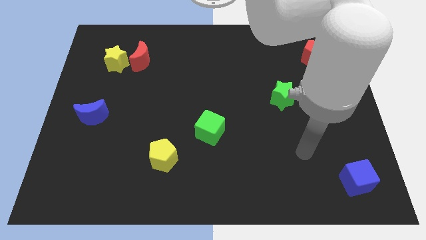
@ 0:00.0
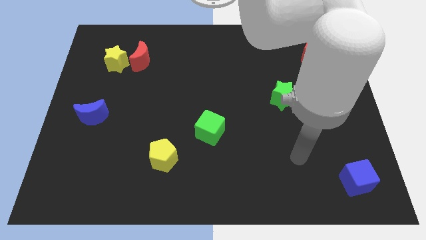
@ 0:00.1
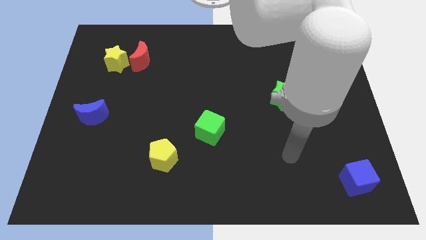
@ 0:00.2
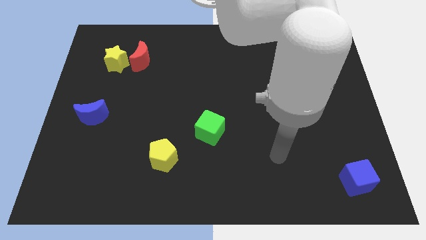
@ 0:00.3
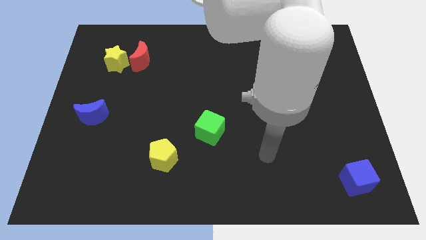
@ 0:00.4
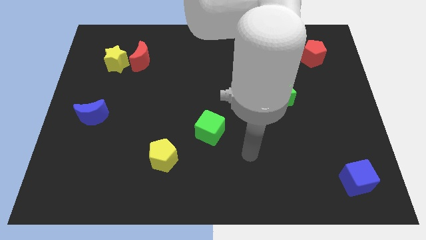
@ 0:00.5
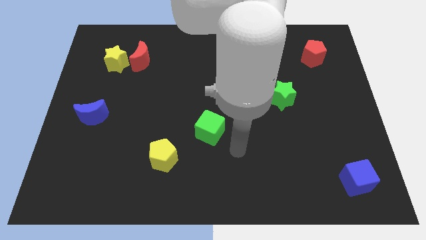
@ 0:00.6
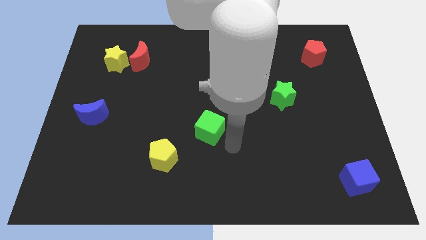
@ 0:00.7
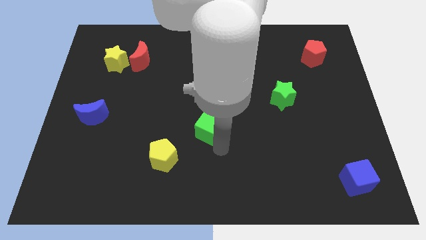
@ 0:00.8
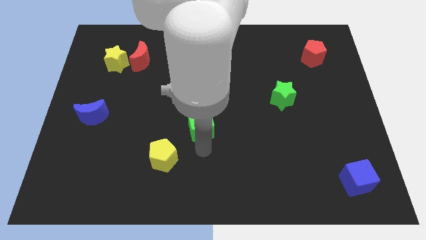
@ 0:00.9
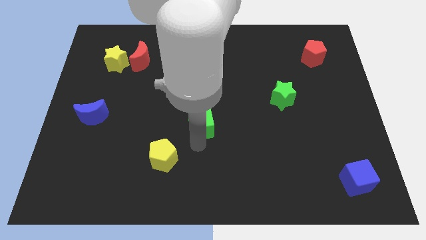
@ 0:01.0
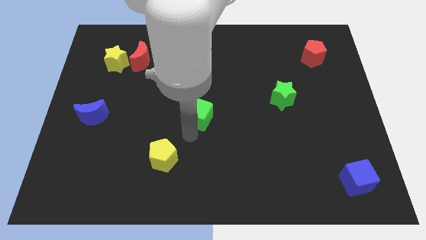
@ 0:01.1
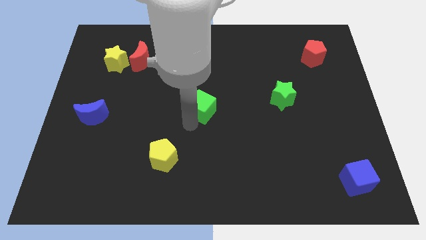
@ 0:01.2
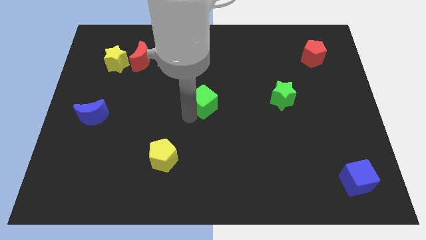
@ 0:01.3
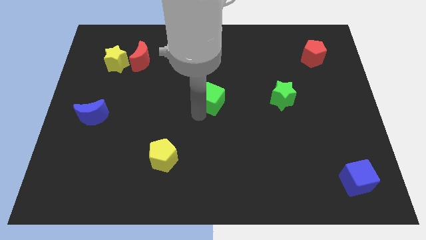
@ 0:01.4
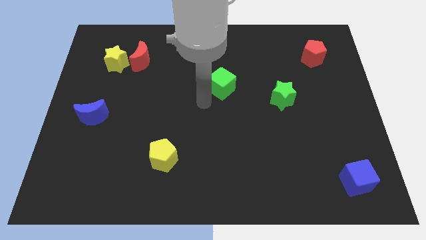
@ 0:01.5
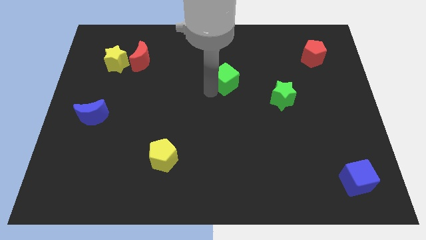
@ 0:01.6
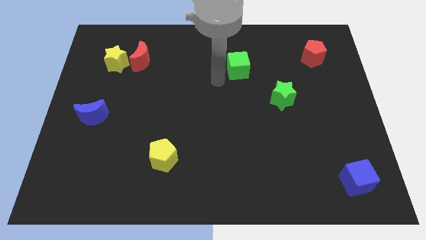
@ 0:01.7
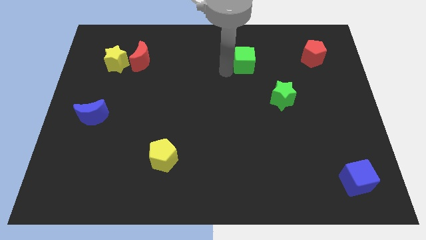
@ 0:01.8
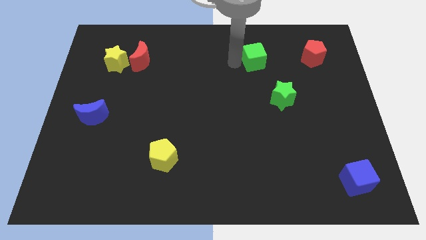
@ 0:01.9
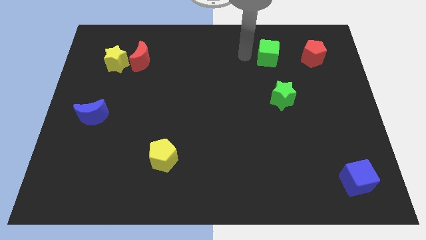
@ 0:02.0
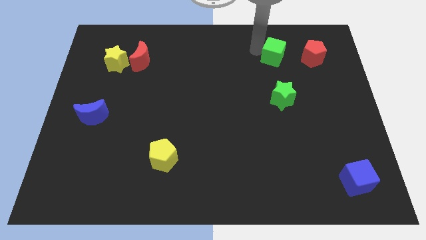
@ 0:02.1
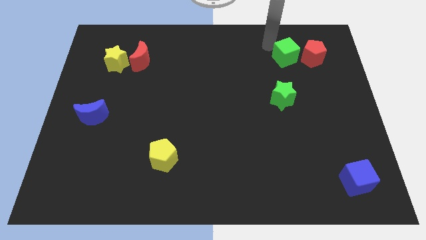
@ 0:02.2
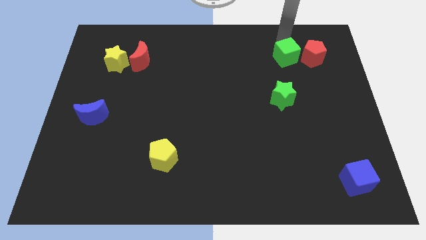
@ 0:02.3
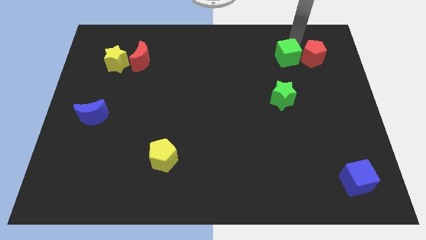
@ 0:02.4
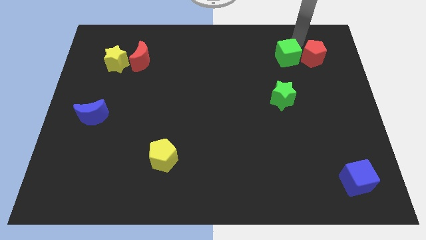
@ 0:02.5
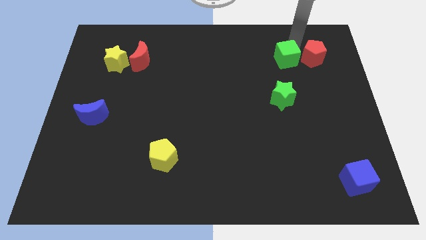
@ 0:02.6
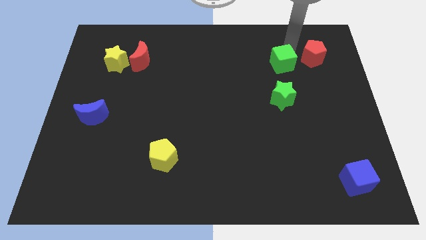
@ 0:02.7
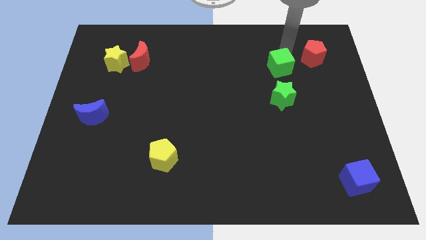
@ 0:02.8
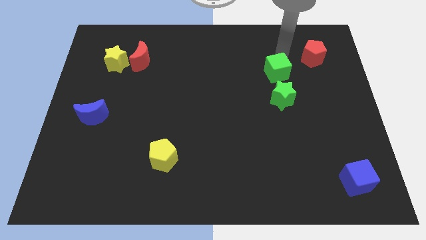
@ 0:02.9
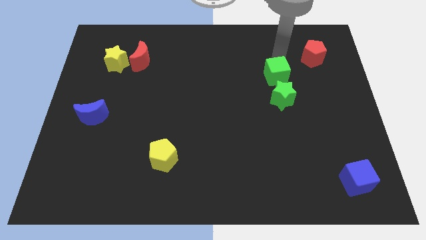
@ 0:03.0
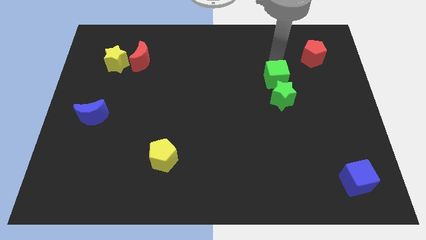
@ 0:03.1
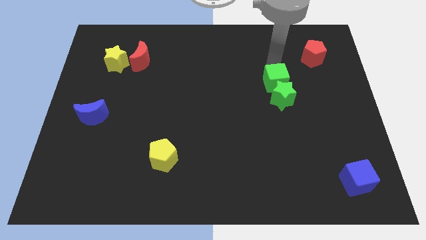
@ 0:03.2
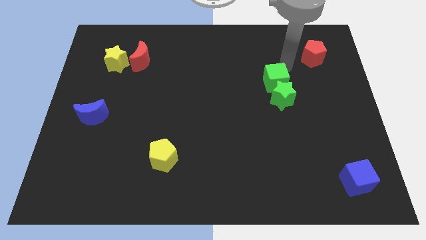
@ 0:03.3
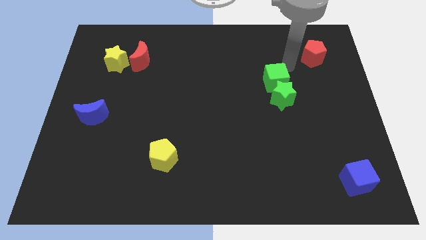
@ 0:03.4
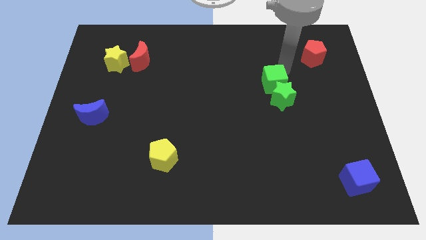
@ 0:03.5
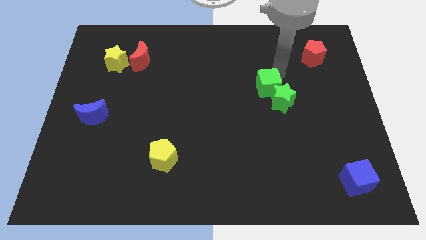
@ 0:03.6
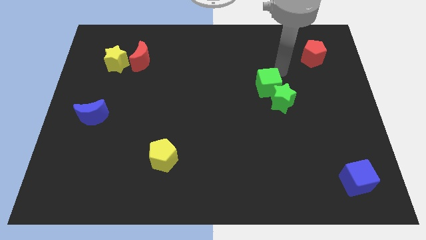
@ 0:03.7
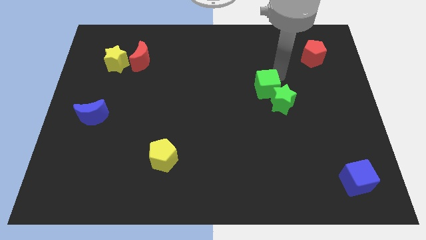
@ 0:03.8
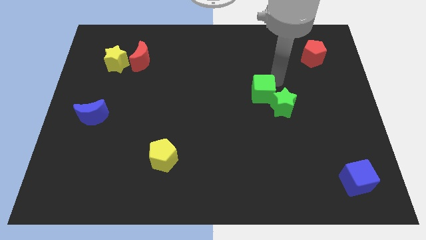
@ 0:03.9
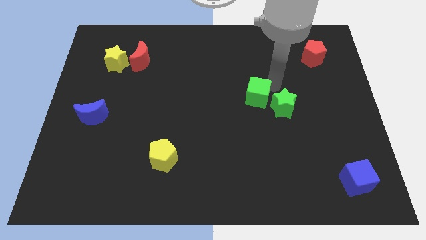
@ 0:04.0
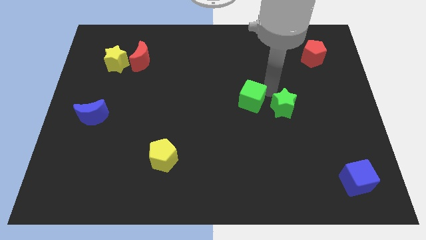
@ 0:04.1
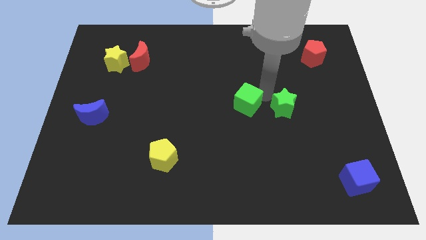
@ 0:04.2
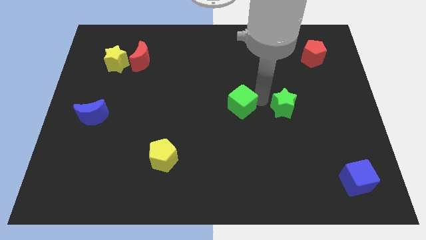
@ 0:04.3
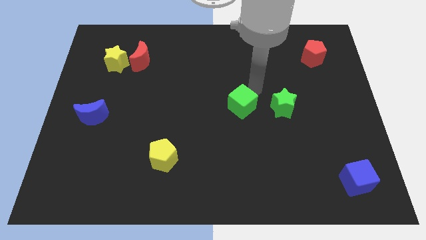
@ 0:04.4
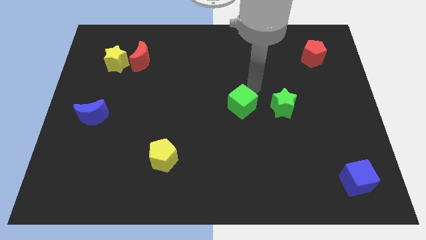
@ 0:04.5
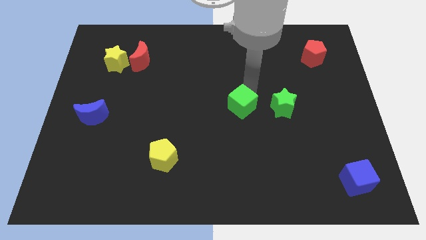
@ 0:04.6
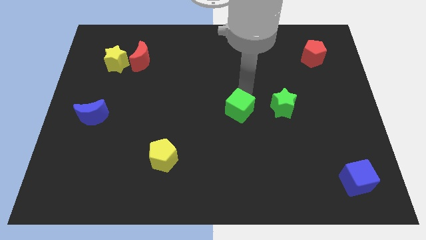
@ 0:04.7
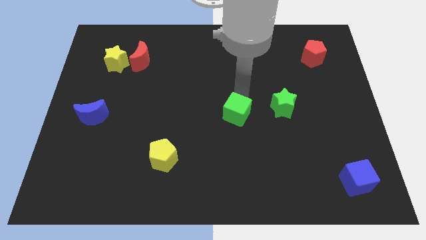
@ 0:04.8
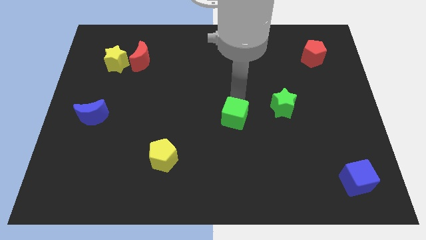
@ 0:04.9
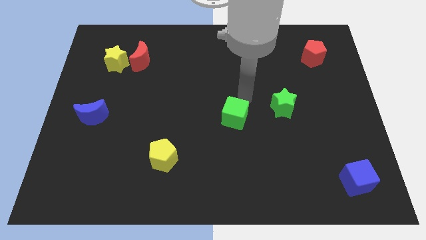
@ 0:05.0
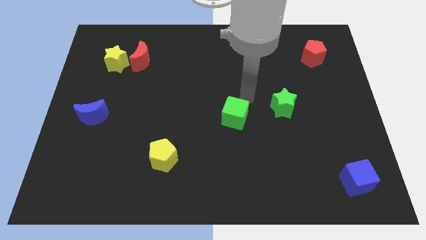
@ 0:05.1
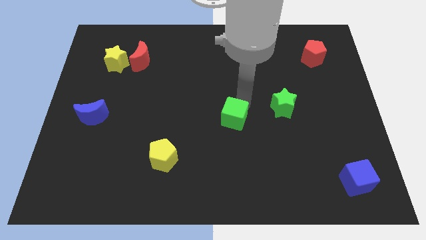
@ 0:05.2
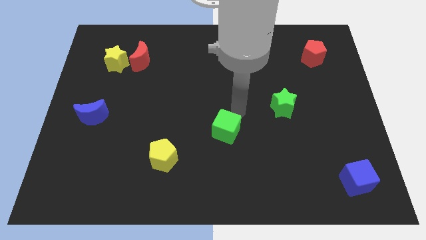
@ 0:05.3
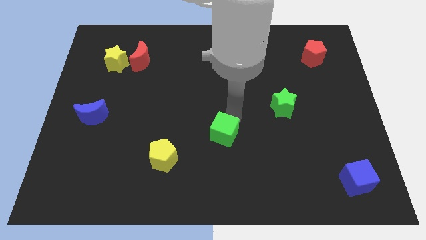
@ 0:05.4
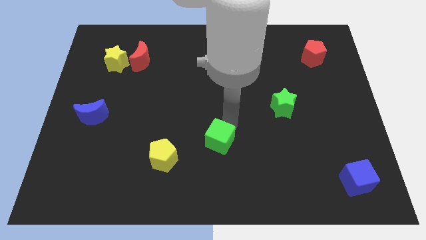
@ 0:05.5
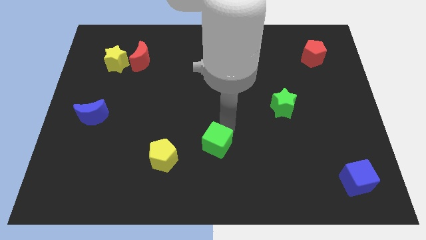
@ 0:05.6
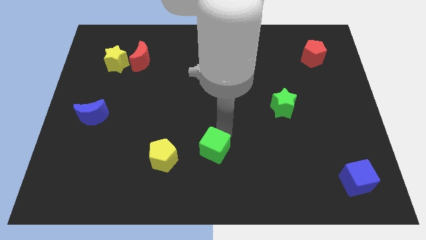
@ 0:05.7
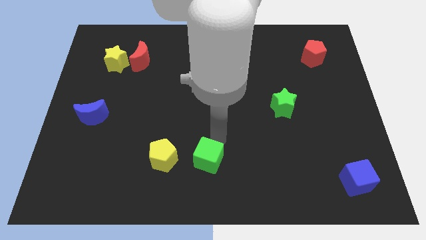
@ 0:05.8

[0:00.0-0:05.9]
slide the green cube to the bottom side
